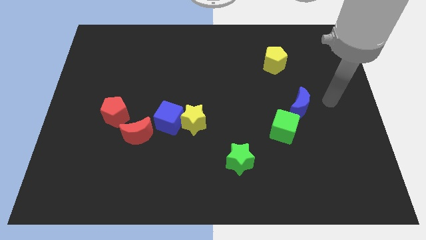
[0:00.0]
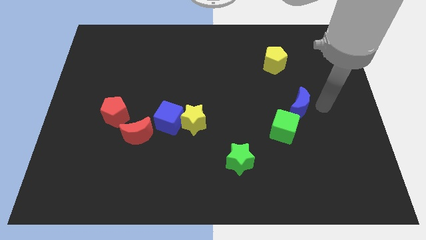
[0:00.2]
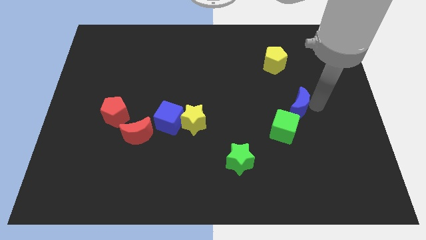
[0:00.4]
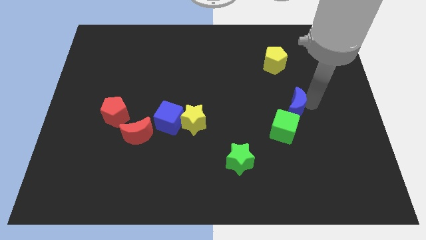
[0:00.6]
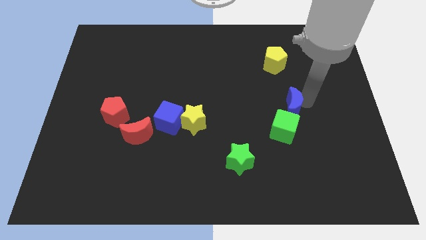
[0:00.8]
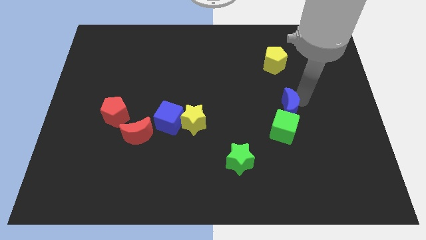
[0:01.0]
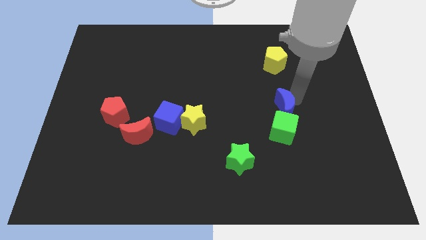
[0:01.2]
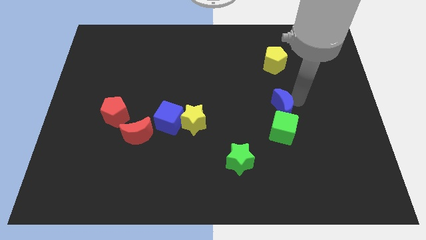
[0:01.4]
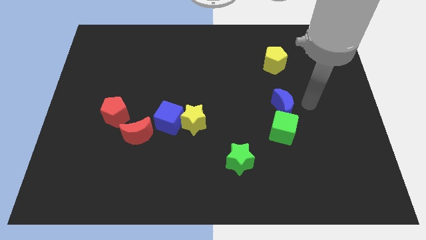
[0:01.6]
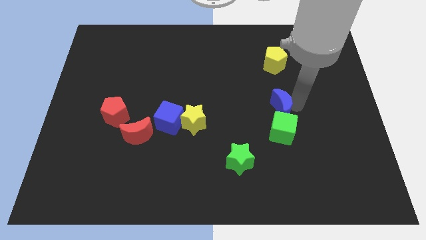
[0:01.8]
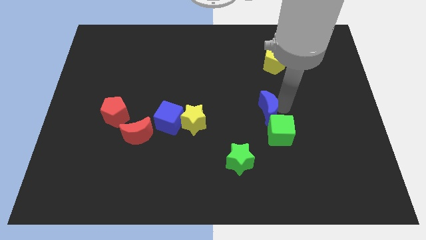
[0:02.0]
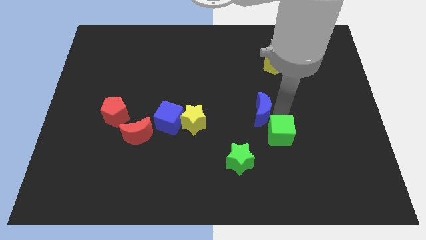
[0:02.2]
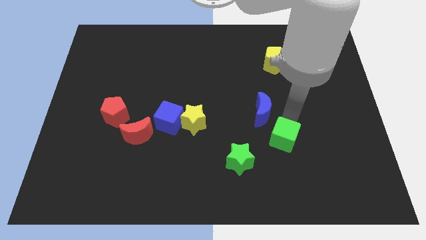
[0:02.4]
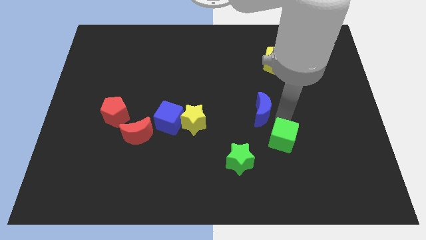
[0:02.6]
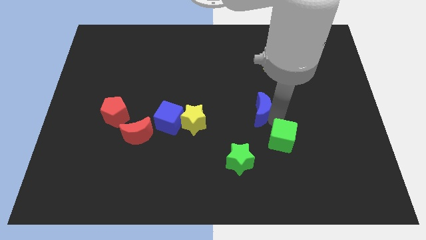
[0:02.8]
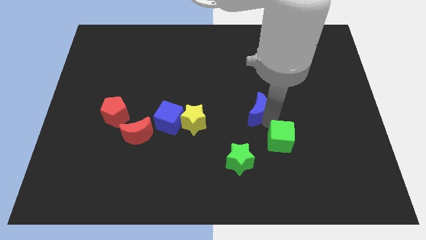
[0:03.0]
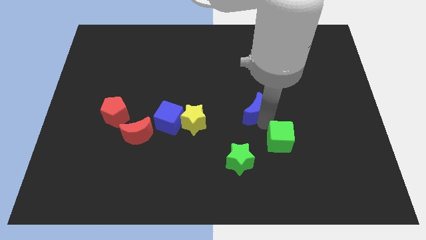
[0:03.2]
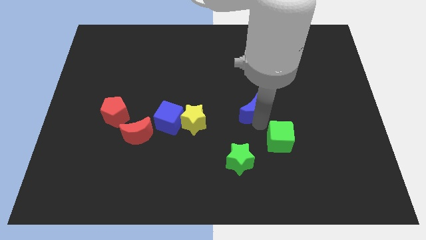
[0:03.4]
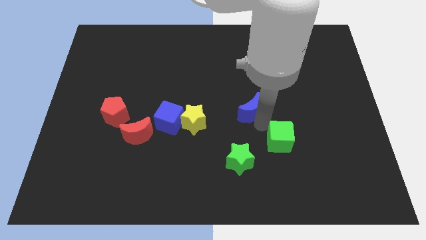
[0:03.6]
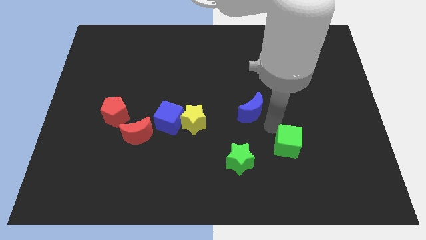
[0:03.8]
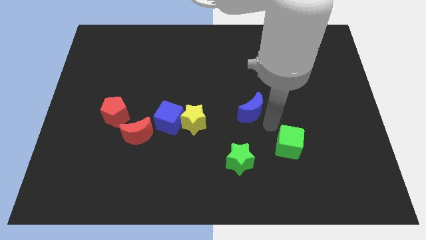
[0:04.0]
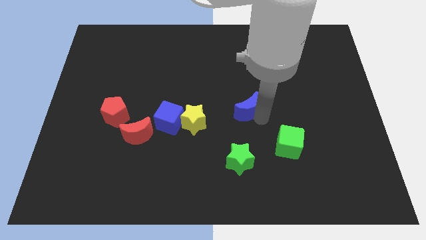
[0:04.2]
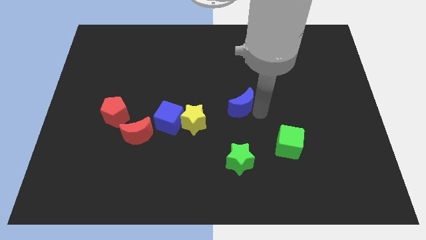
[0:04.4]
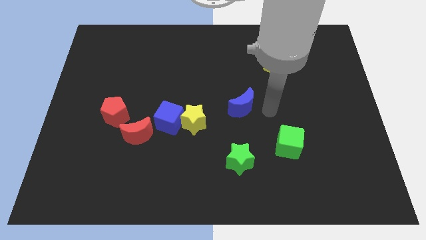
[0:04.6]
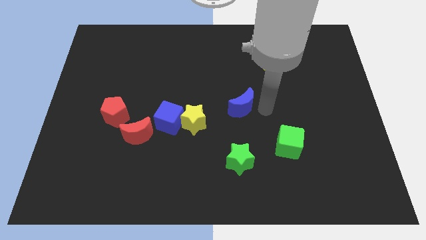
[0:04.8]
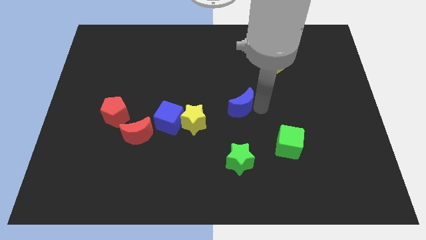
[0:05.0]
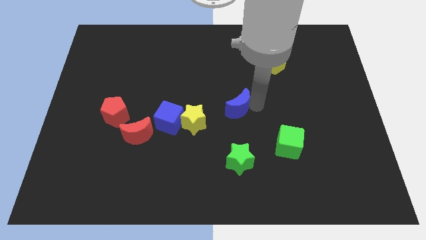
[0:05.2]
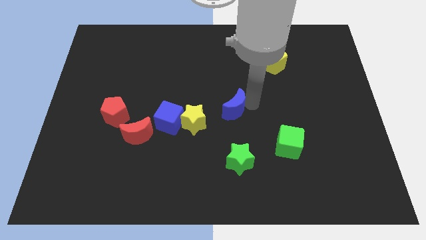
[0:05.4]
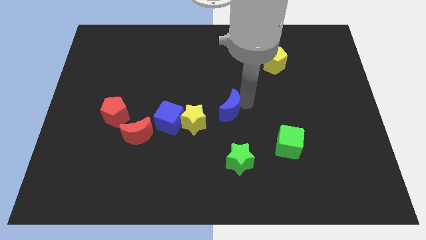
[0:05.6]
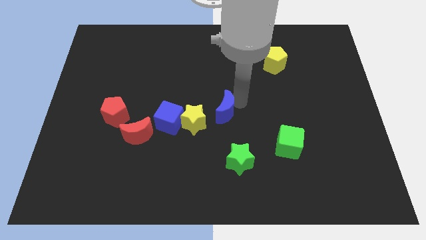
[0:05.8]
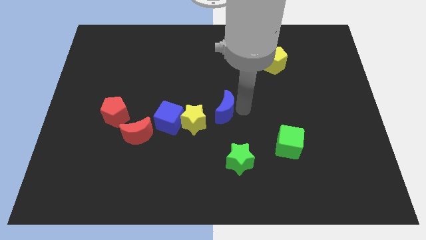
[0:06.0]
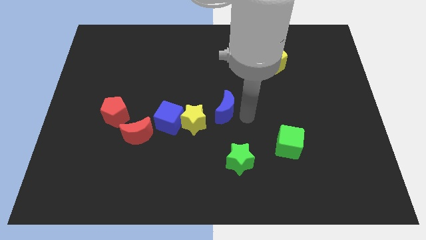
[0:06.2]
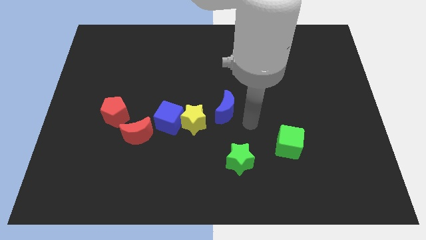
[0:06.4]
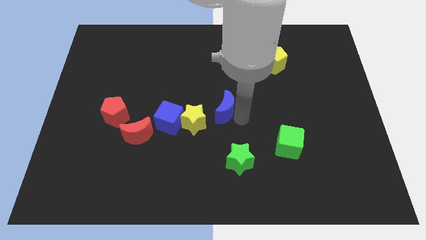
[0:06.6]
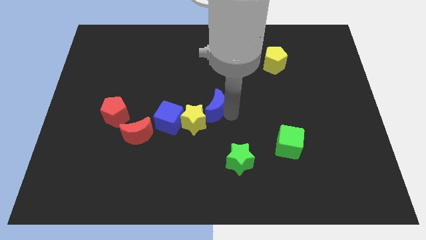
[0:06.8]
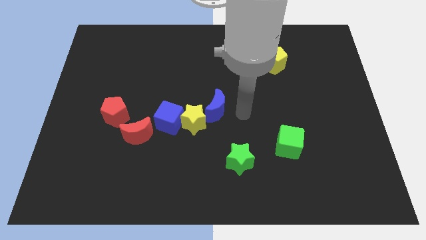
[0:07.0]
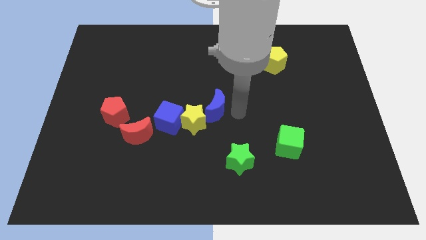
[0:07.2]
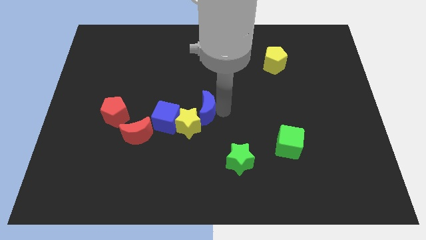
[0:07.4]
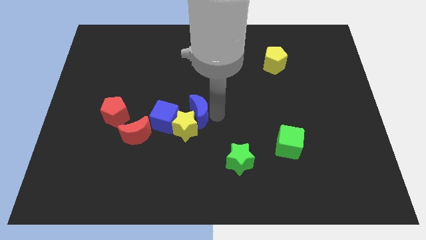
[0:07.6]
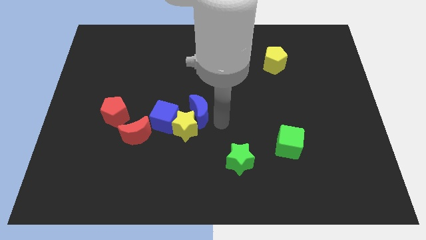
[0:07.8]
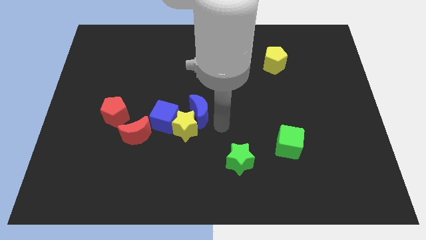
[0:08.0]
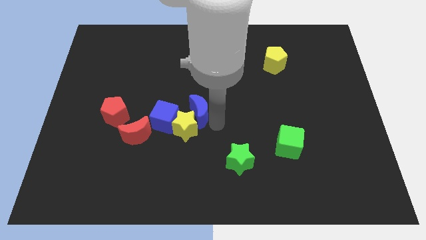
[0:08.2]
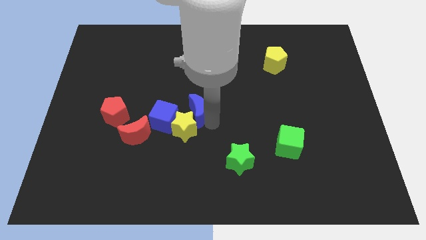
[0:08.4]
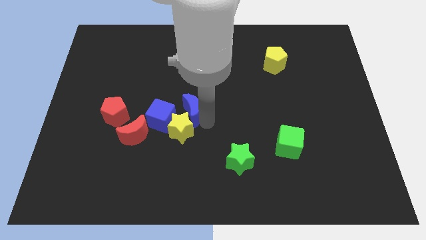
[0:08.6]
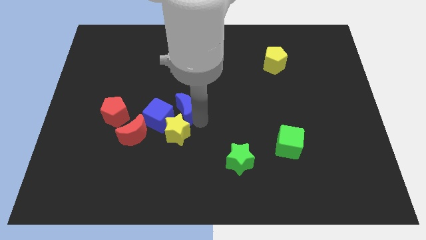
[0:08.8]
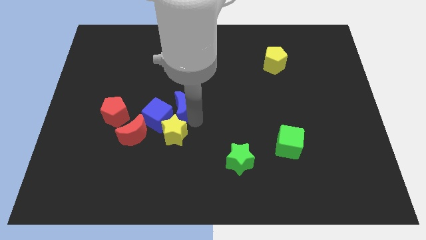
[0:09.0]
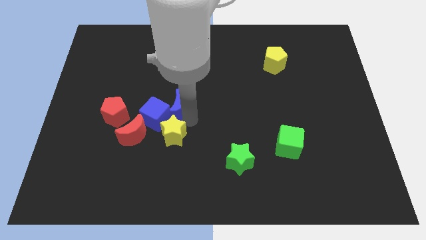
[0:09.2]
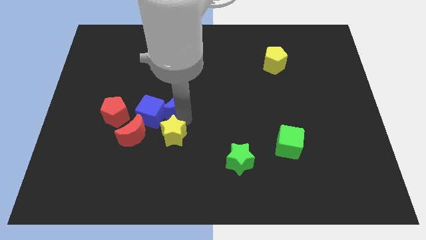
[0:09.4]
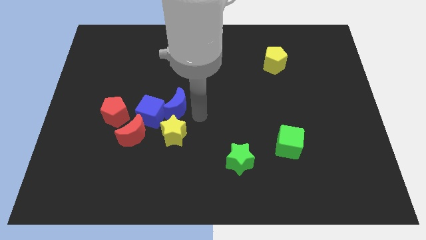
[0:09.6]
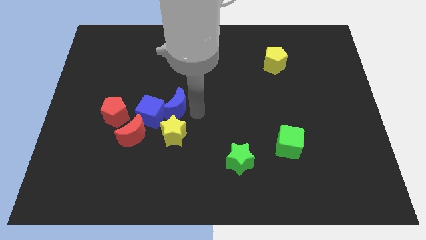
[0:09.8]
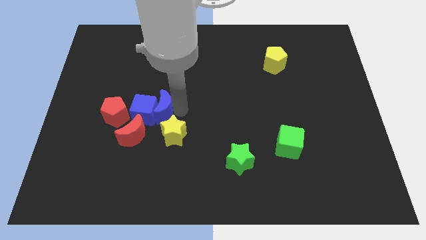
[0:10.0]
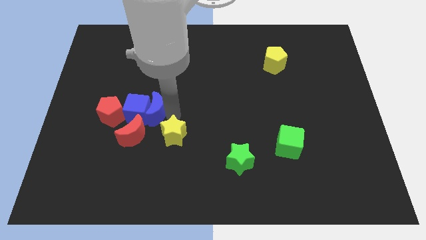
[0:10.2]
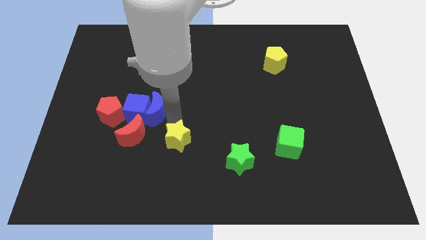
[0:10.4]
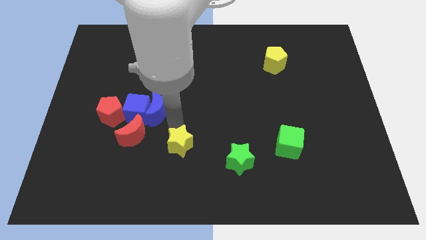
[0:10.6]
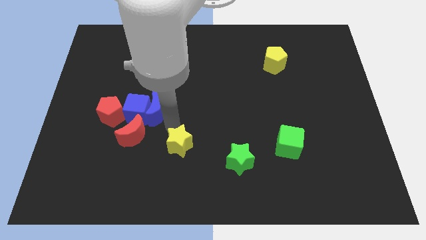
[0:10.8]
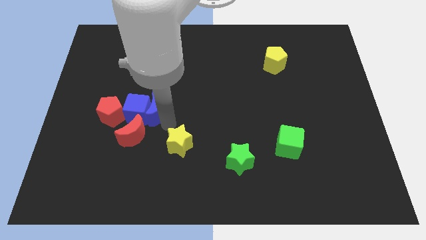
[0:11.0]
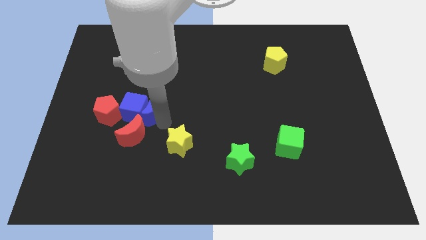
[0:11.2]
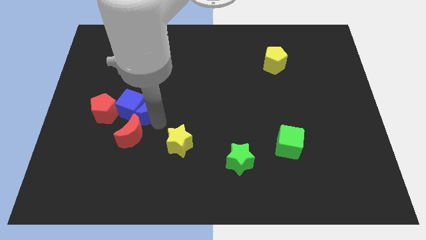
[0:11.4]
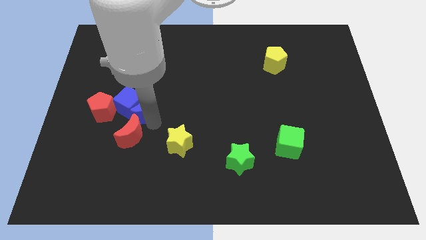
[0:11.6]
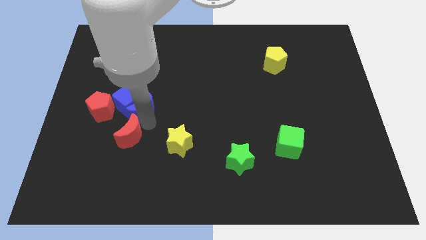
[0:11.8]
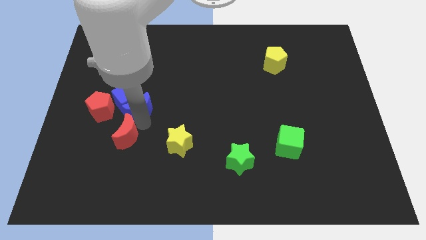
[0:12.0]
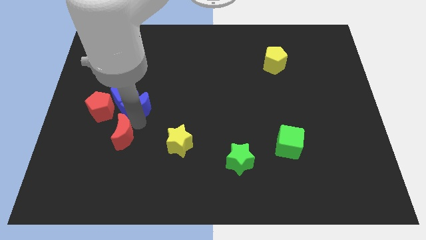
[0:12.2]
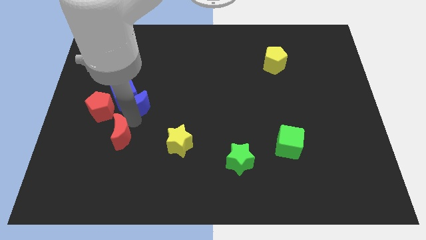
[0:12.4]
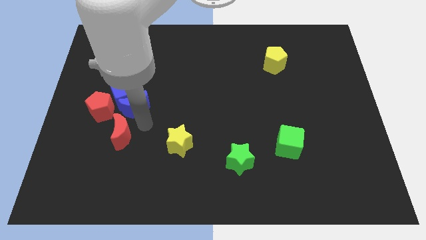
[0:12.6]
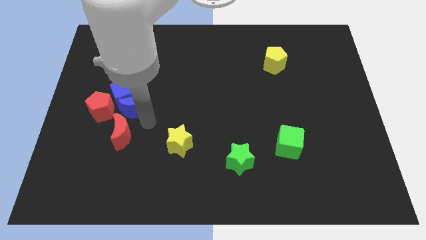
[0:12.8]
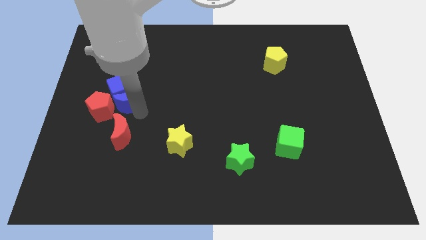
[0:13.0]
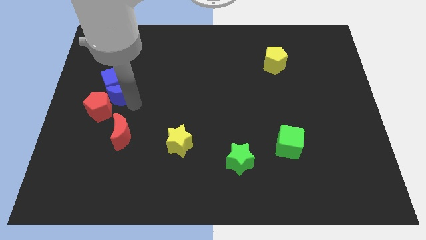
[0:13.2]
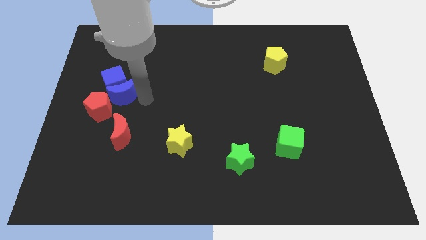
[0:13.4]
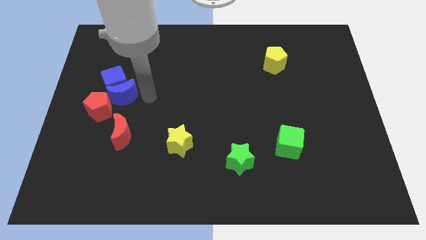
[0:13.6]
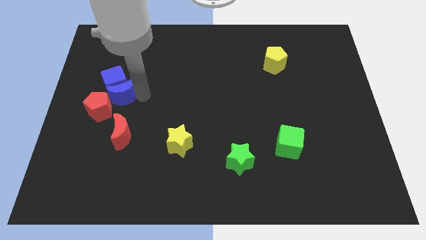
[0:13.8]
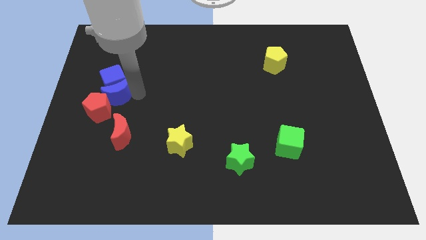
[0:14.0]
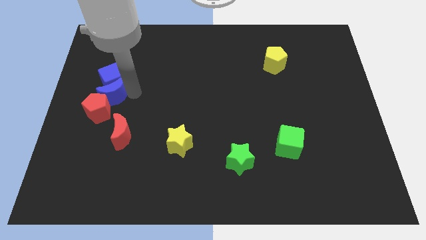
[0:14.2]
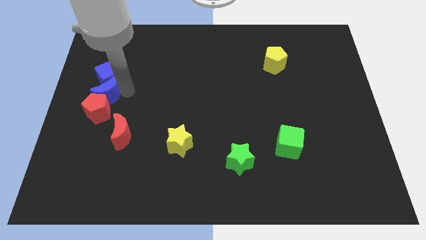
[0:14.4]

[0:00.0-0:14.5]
slide the blue moon to the center left
